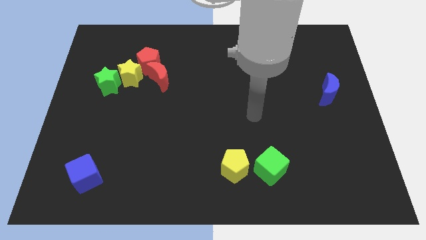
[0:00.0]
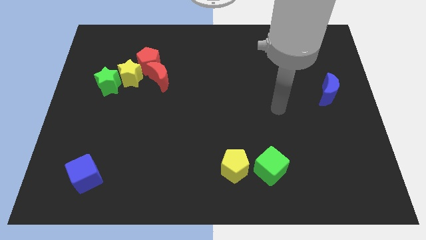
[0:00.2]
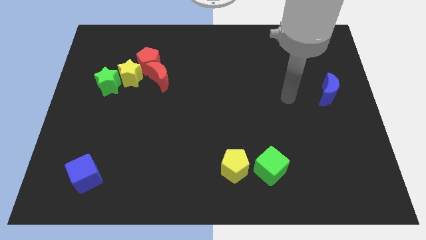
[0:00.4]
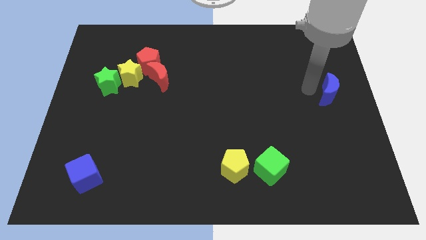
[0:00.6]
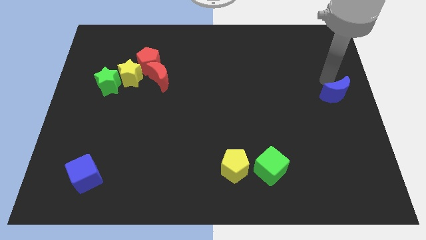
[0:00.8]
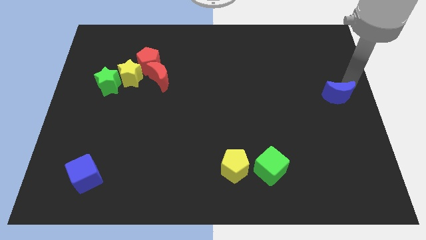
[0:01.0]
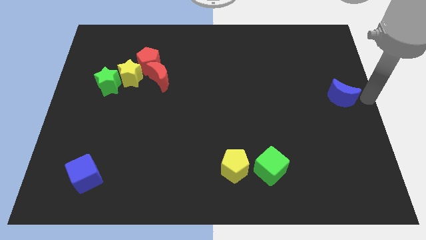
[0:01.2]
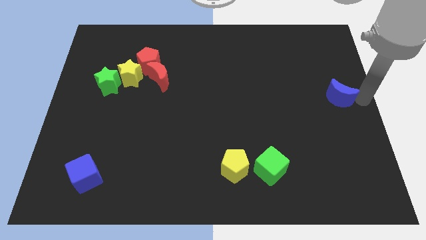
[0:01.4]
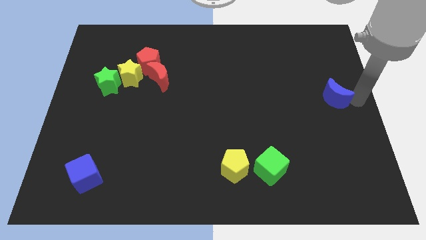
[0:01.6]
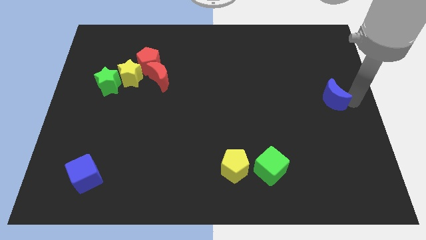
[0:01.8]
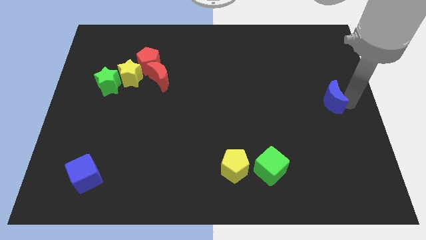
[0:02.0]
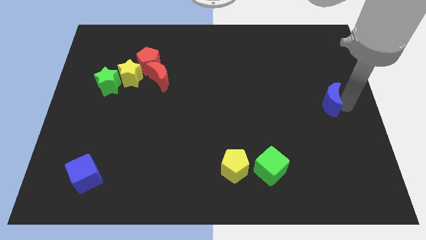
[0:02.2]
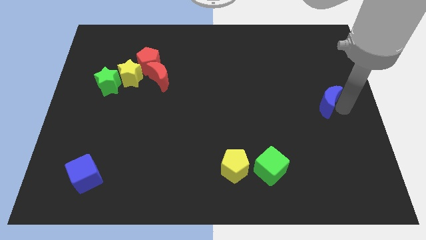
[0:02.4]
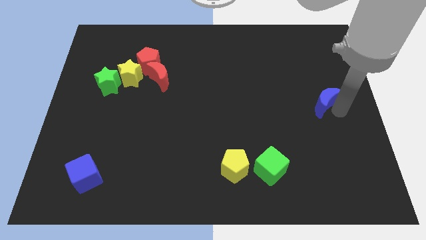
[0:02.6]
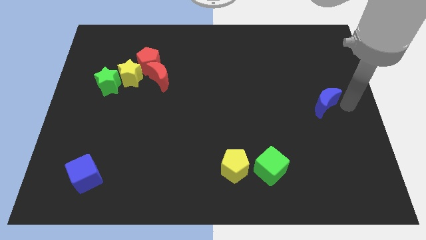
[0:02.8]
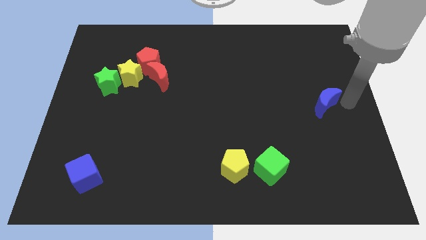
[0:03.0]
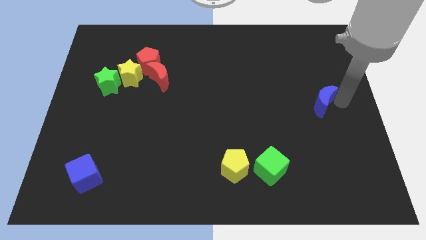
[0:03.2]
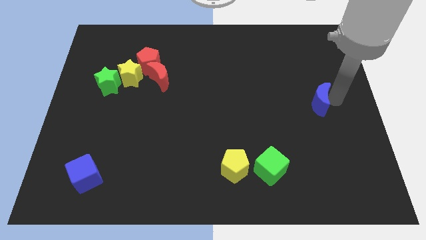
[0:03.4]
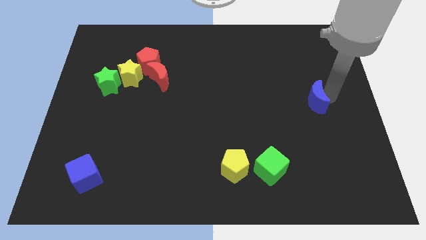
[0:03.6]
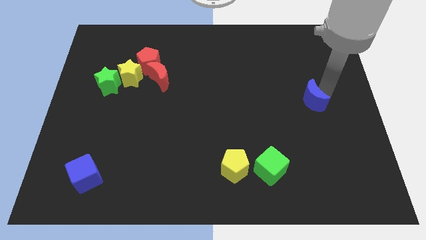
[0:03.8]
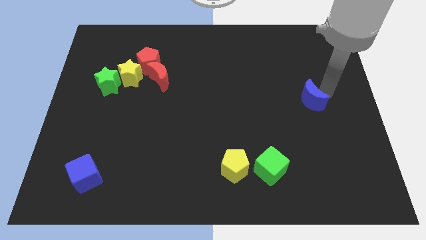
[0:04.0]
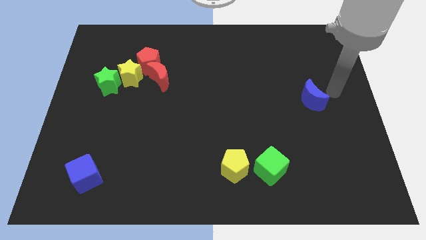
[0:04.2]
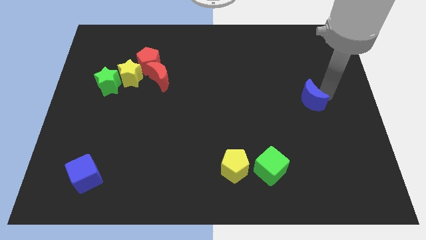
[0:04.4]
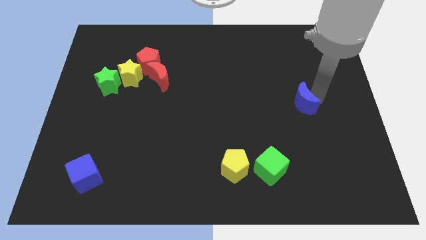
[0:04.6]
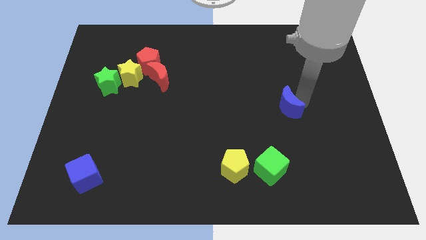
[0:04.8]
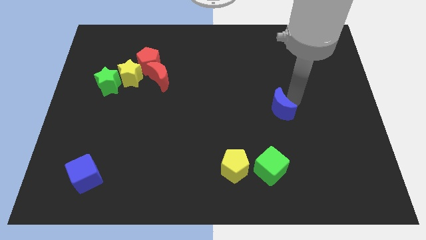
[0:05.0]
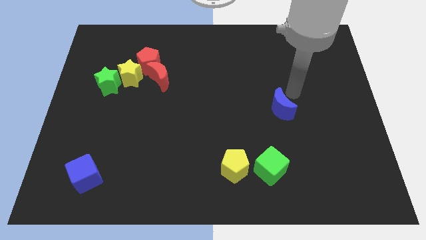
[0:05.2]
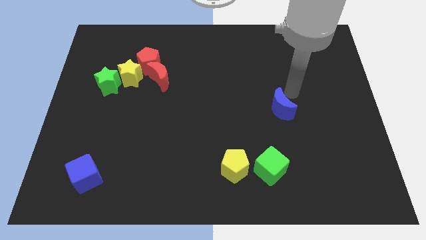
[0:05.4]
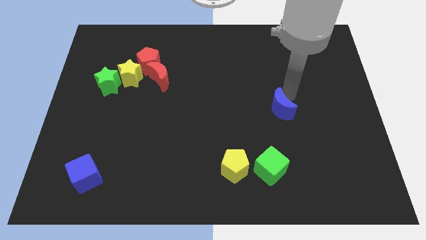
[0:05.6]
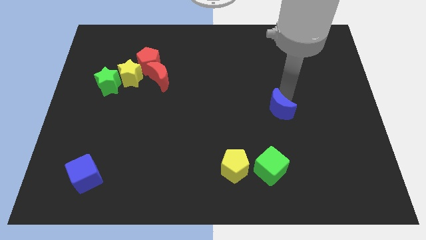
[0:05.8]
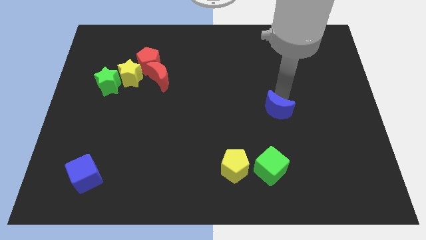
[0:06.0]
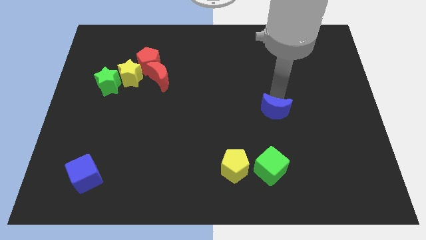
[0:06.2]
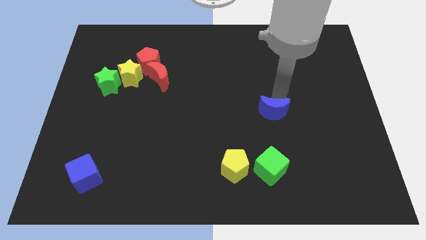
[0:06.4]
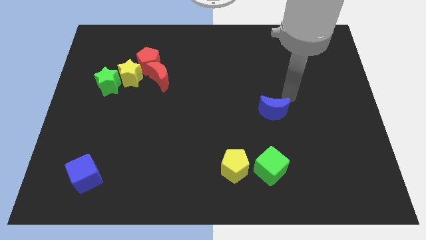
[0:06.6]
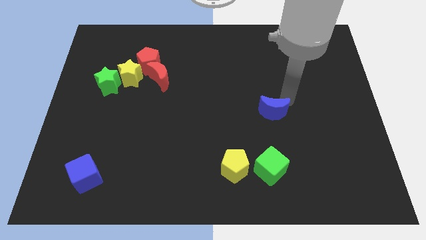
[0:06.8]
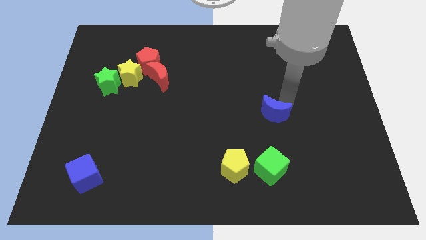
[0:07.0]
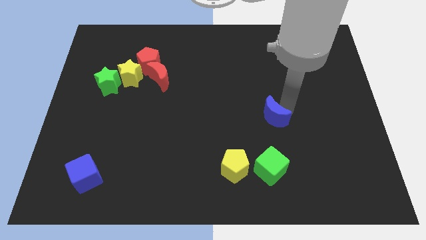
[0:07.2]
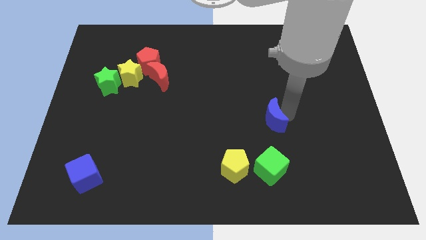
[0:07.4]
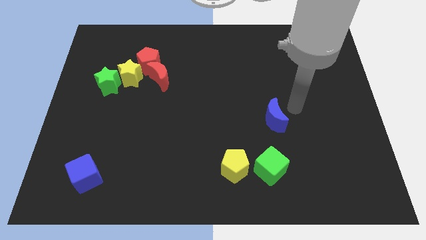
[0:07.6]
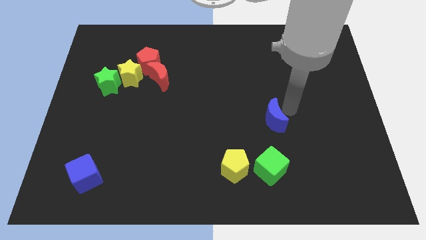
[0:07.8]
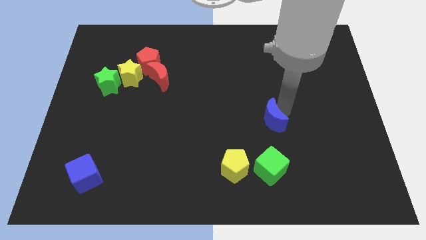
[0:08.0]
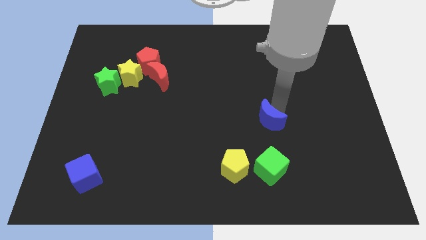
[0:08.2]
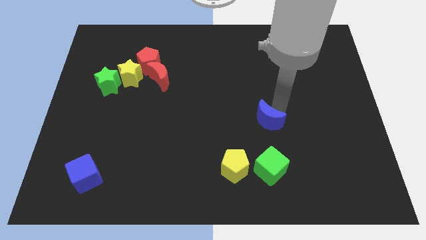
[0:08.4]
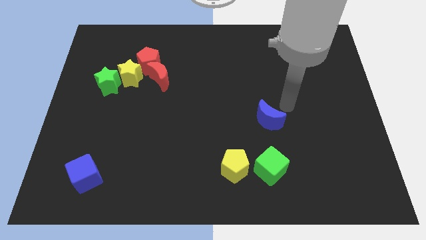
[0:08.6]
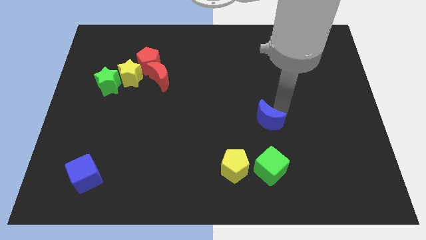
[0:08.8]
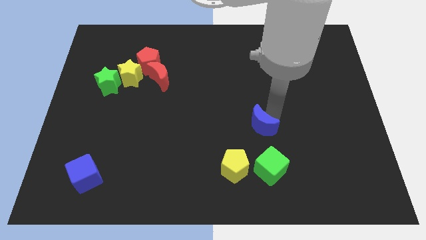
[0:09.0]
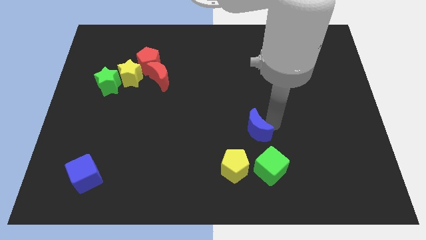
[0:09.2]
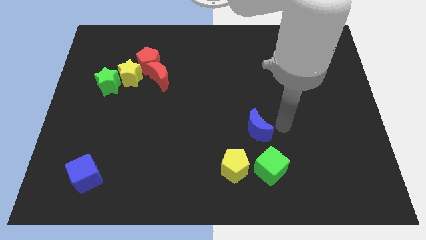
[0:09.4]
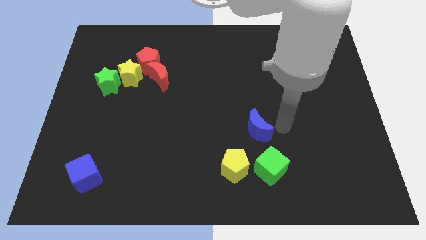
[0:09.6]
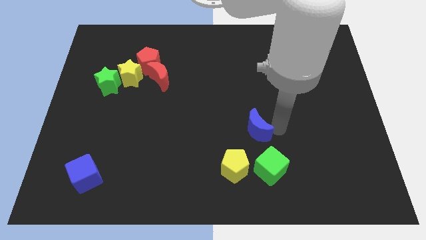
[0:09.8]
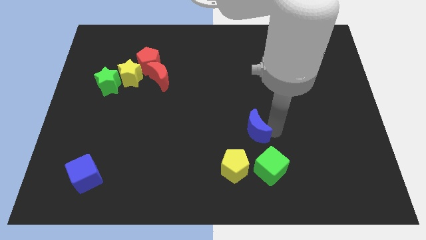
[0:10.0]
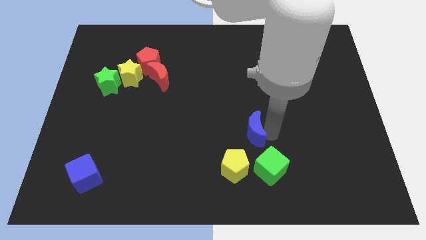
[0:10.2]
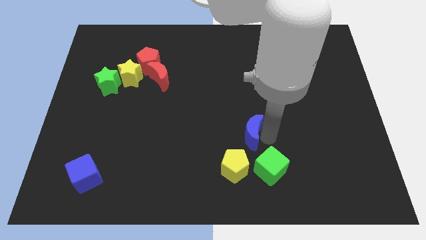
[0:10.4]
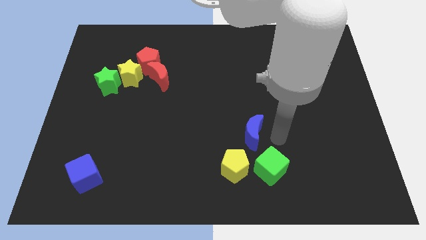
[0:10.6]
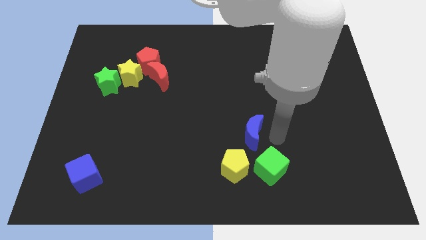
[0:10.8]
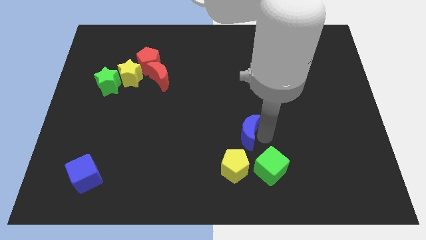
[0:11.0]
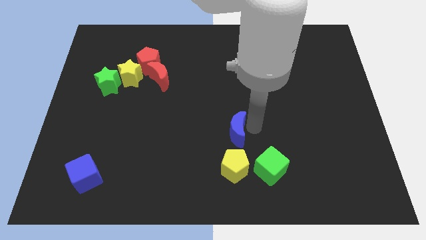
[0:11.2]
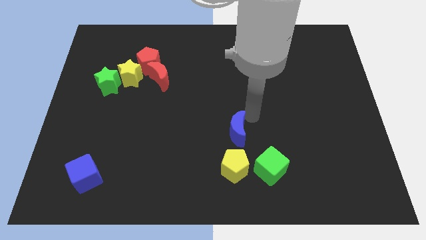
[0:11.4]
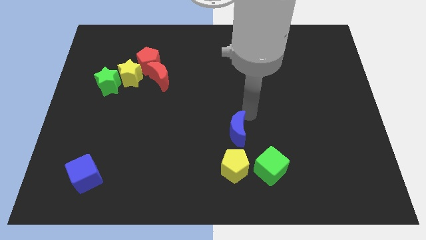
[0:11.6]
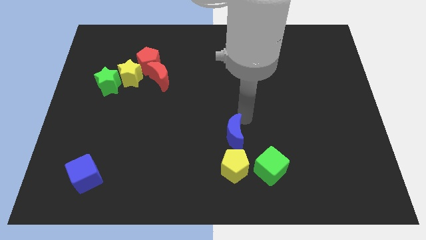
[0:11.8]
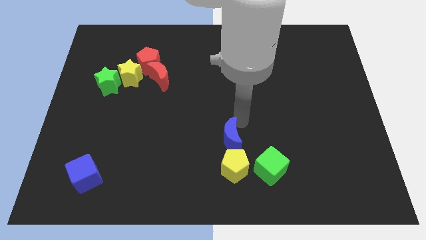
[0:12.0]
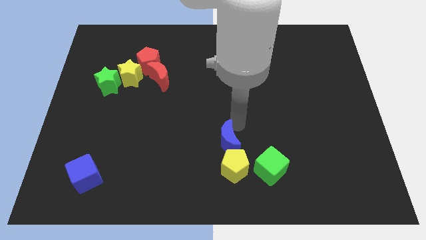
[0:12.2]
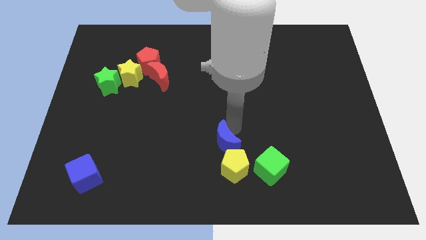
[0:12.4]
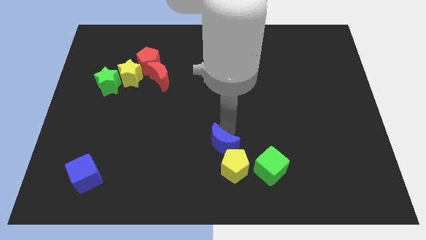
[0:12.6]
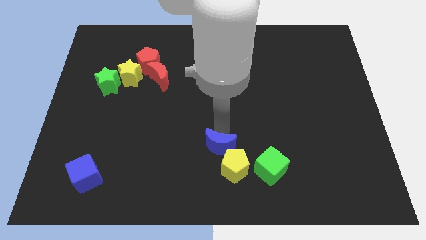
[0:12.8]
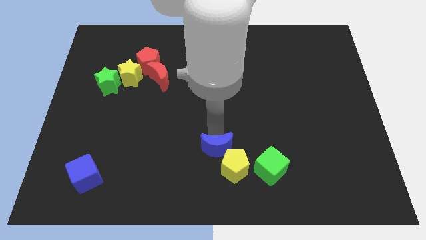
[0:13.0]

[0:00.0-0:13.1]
slide the blue moon to the left of the green cube

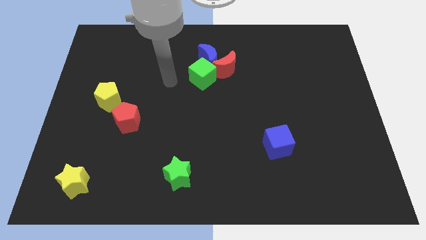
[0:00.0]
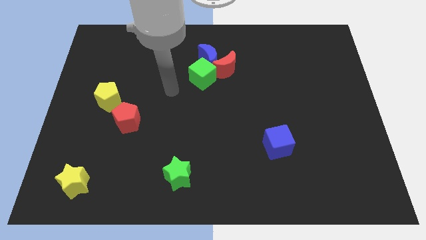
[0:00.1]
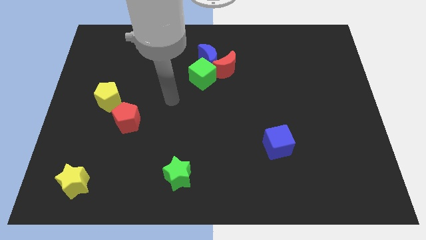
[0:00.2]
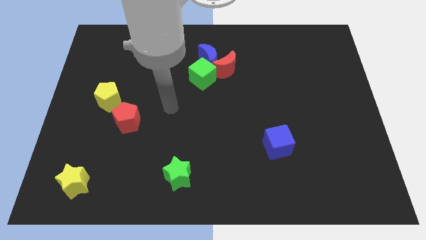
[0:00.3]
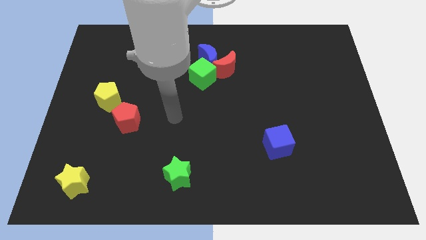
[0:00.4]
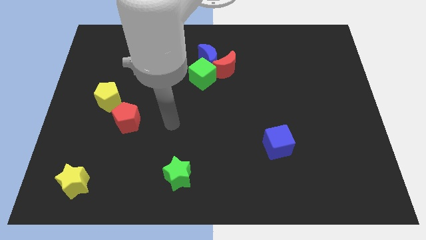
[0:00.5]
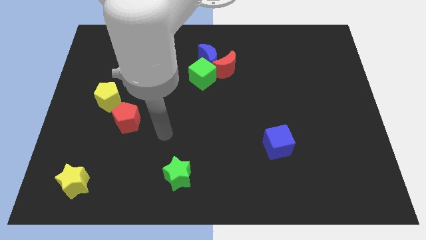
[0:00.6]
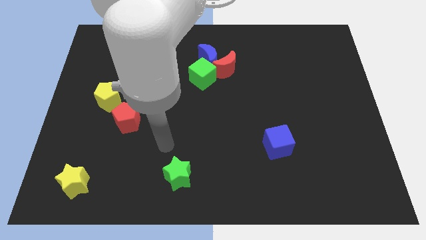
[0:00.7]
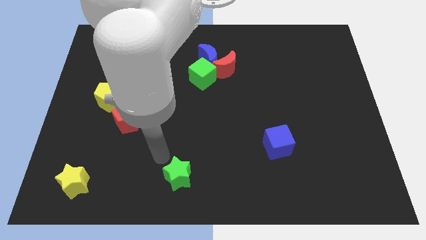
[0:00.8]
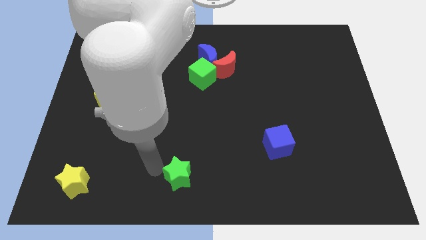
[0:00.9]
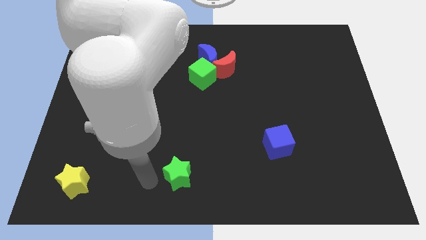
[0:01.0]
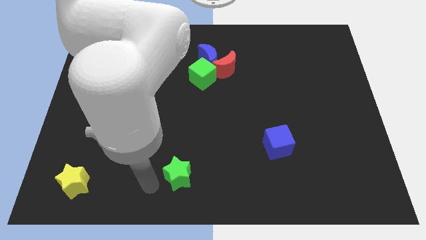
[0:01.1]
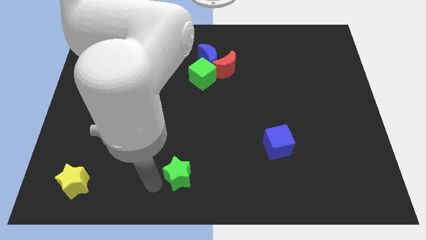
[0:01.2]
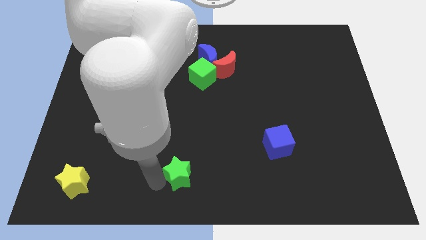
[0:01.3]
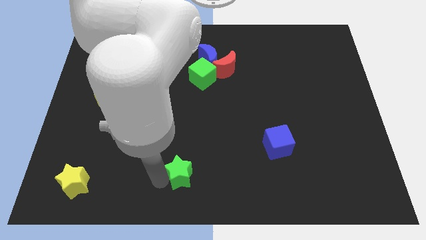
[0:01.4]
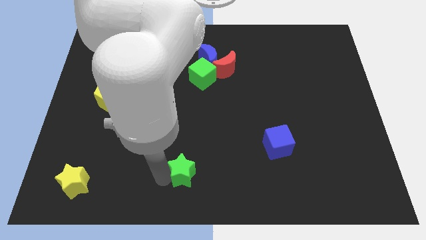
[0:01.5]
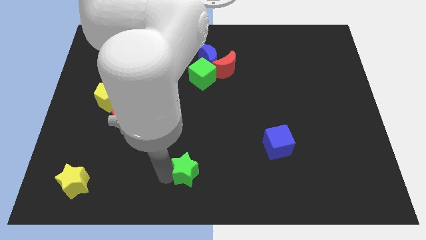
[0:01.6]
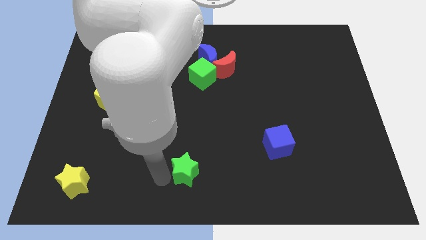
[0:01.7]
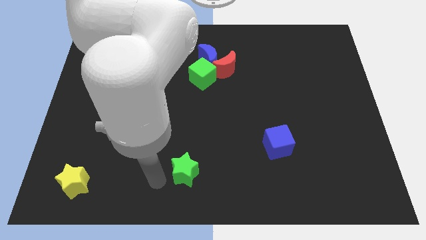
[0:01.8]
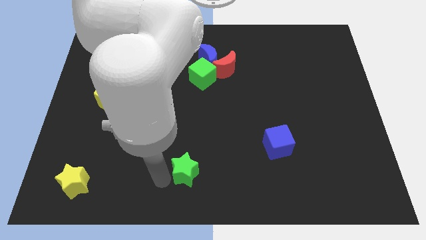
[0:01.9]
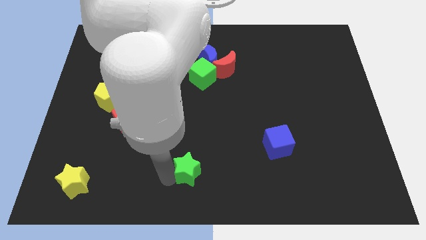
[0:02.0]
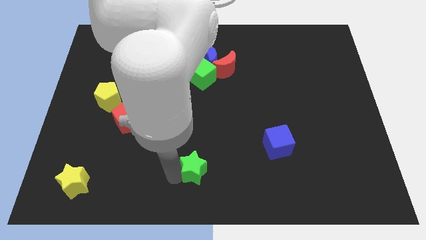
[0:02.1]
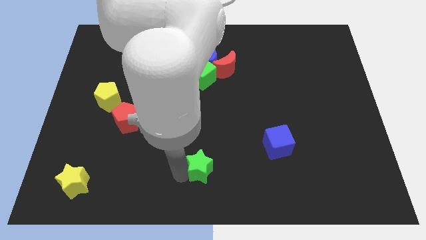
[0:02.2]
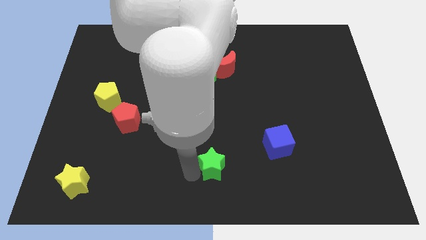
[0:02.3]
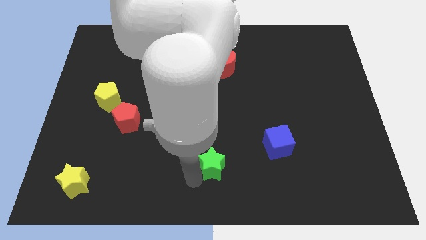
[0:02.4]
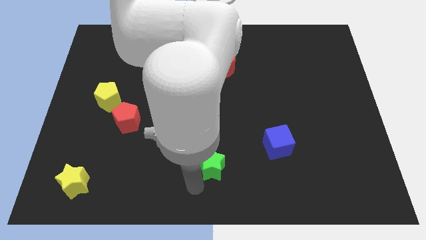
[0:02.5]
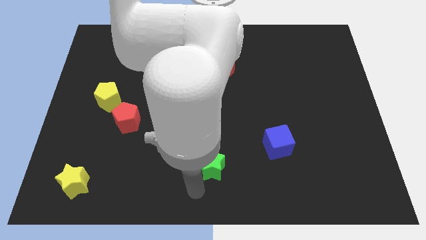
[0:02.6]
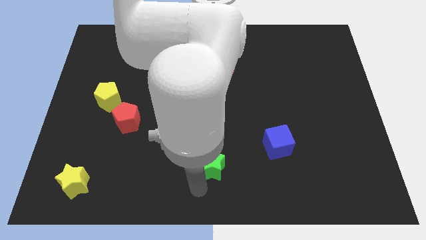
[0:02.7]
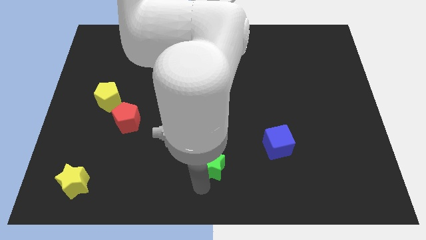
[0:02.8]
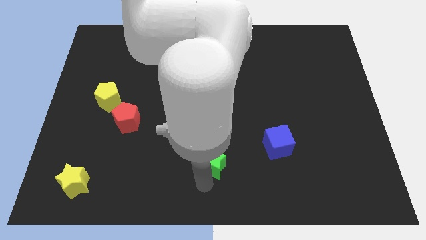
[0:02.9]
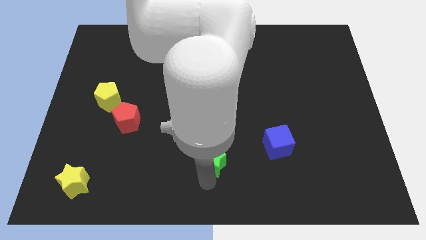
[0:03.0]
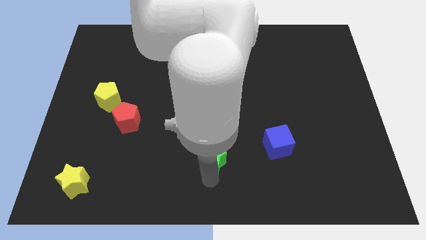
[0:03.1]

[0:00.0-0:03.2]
put the green star just left of the blue cube
